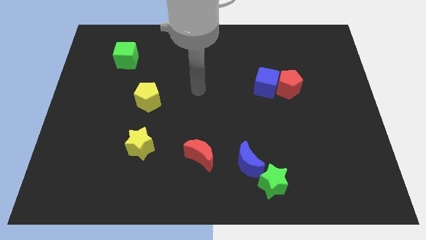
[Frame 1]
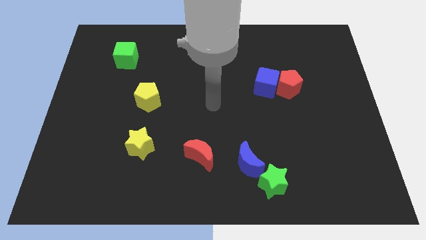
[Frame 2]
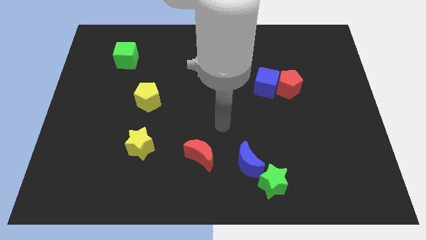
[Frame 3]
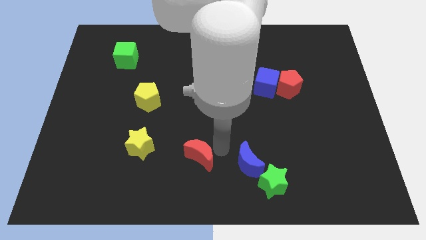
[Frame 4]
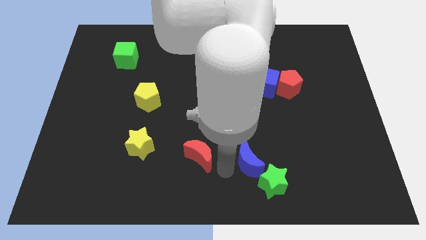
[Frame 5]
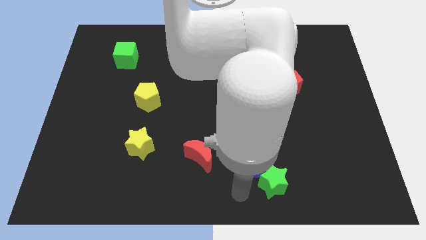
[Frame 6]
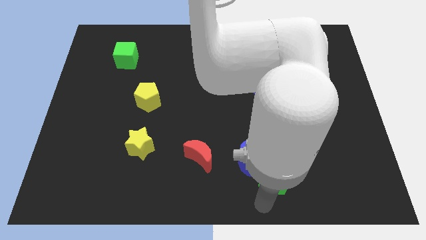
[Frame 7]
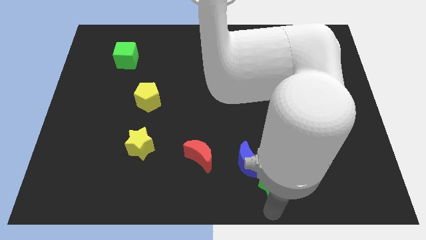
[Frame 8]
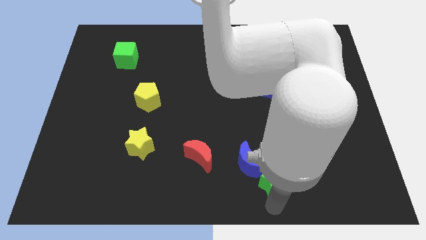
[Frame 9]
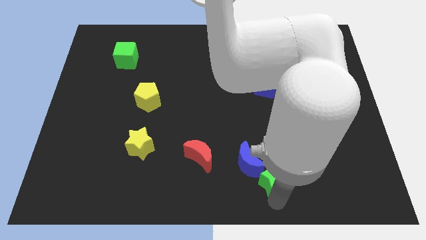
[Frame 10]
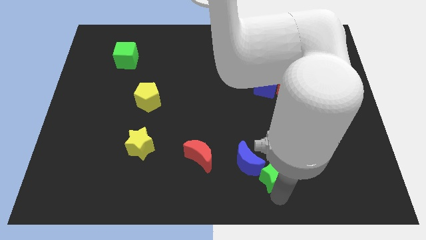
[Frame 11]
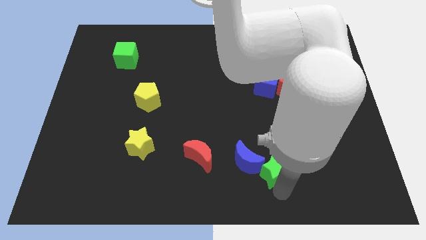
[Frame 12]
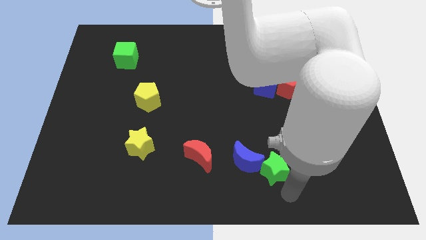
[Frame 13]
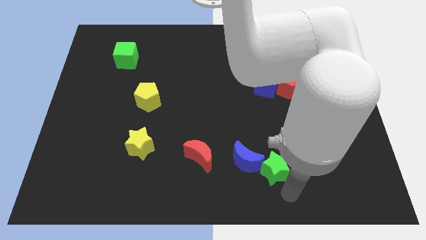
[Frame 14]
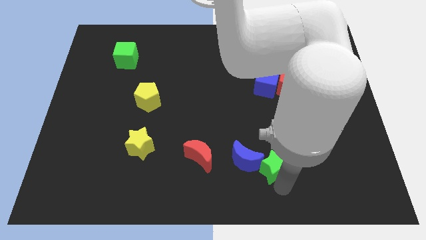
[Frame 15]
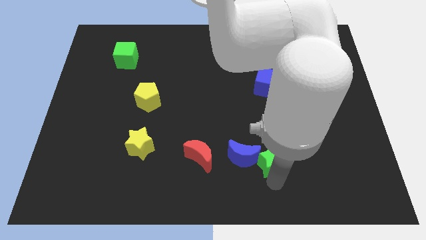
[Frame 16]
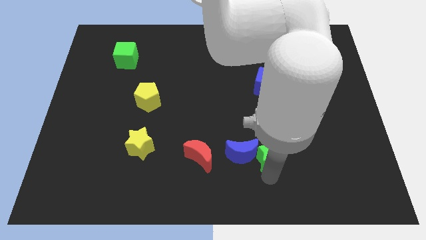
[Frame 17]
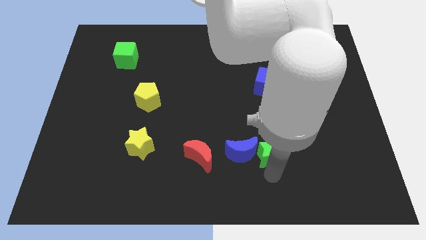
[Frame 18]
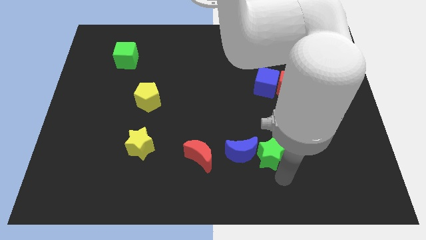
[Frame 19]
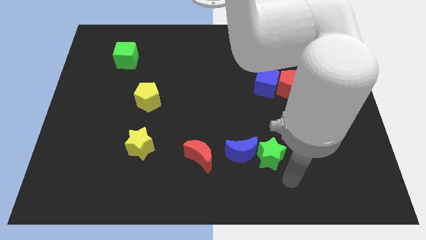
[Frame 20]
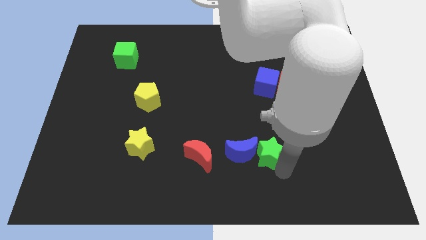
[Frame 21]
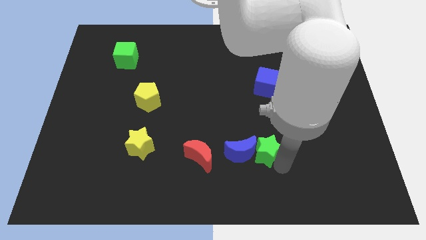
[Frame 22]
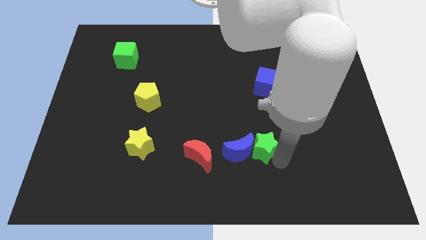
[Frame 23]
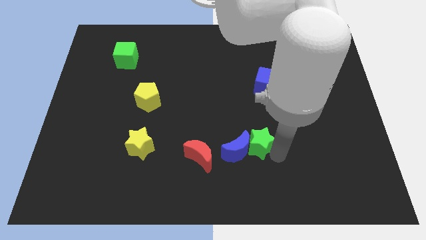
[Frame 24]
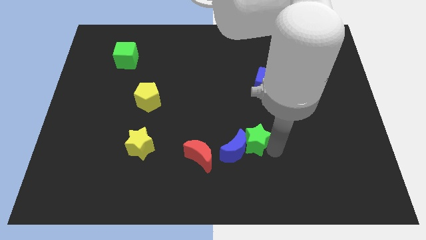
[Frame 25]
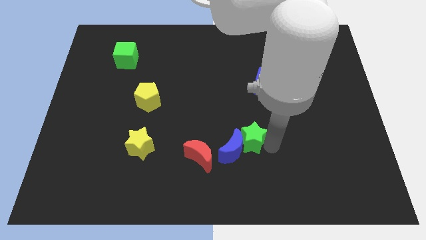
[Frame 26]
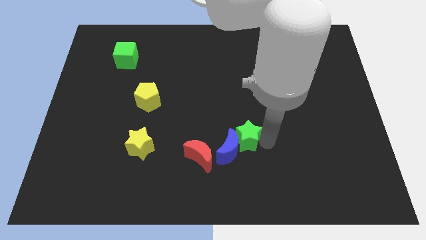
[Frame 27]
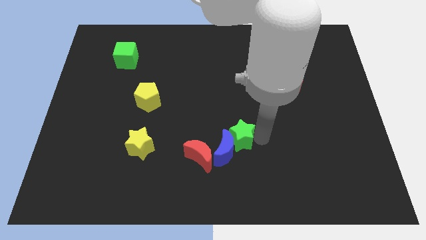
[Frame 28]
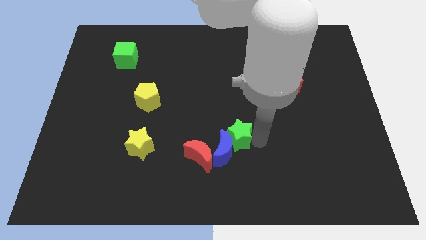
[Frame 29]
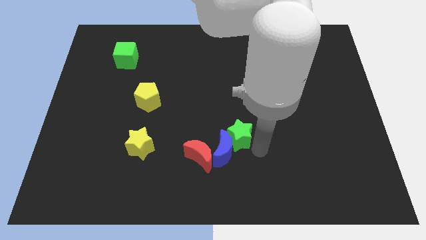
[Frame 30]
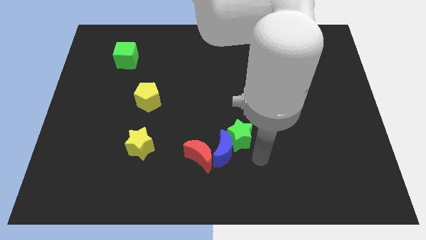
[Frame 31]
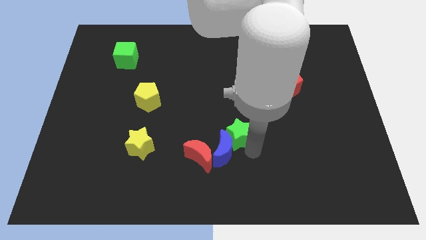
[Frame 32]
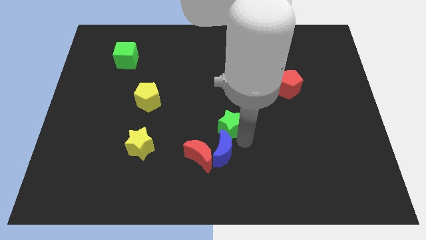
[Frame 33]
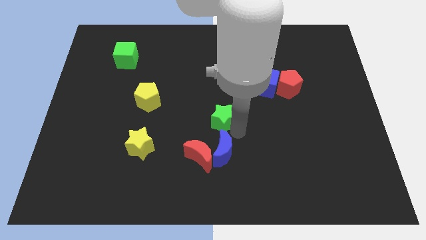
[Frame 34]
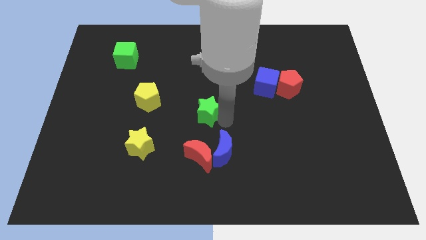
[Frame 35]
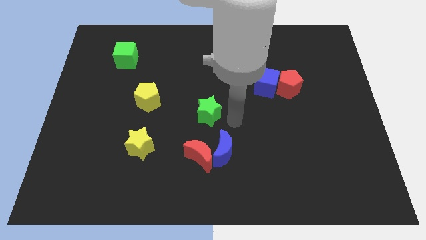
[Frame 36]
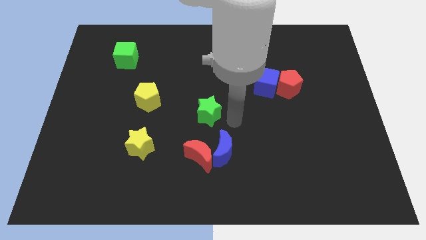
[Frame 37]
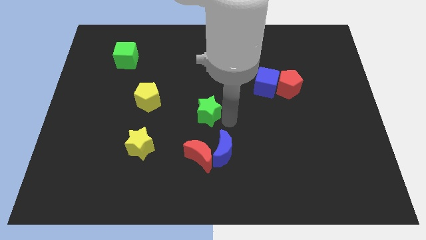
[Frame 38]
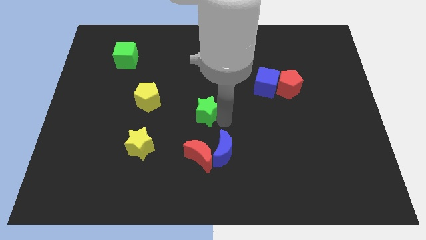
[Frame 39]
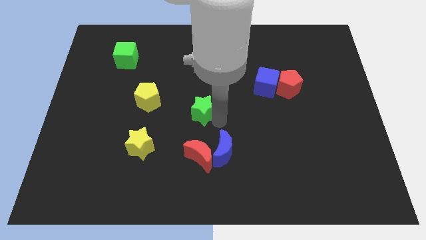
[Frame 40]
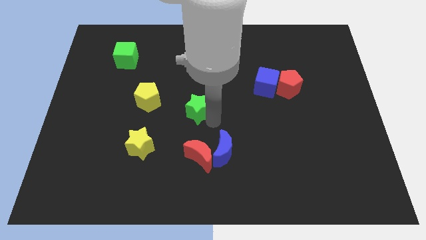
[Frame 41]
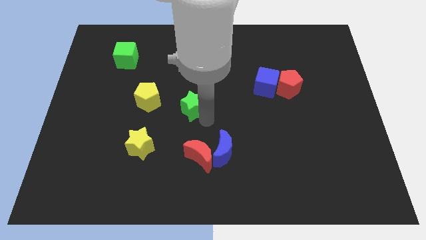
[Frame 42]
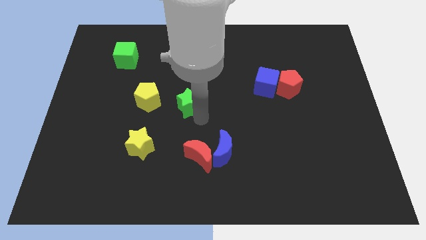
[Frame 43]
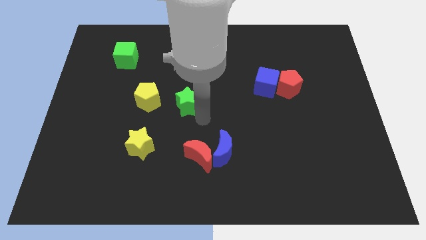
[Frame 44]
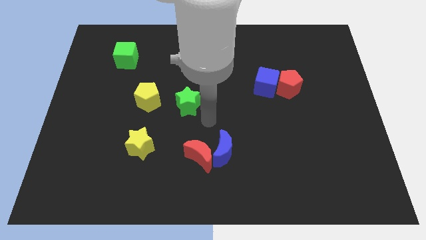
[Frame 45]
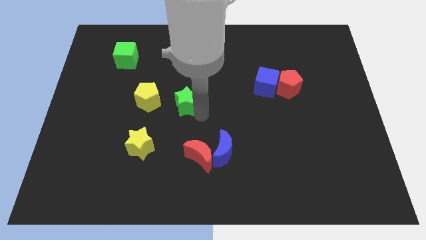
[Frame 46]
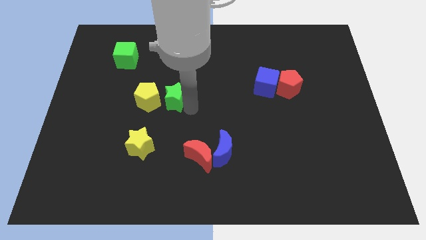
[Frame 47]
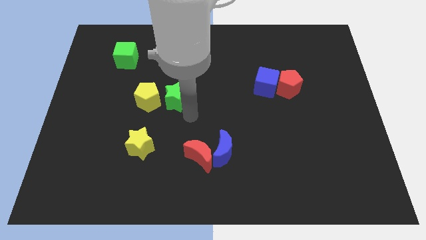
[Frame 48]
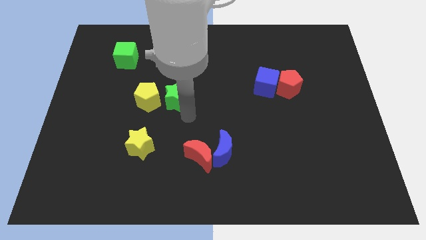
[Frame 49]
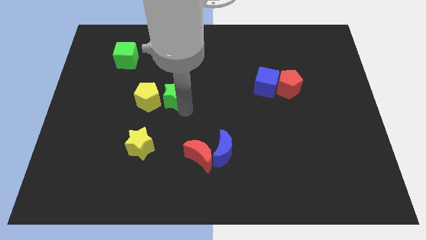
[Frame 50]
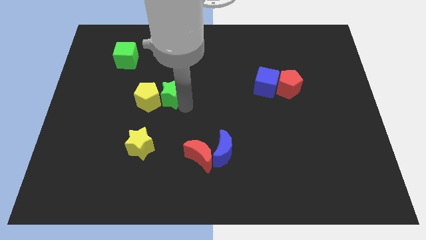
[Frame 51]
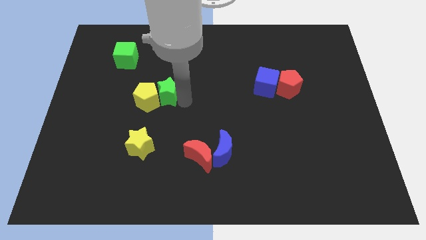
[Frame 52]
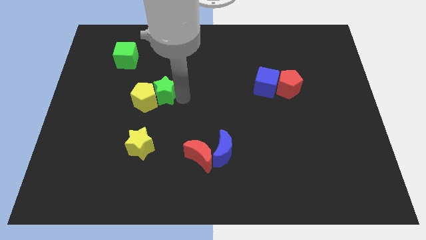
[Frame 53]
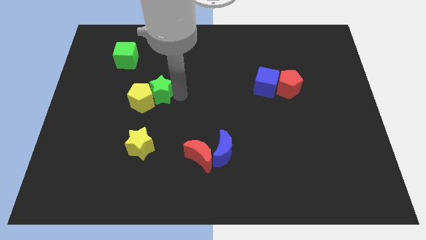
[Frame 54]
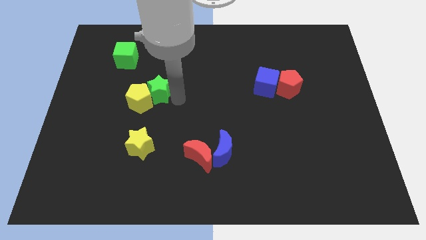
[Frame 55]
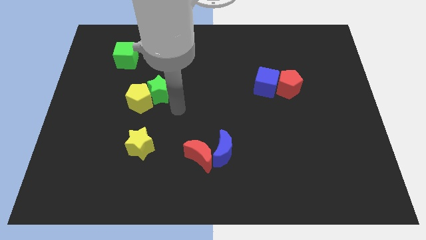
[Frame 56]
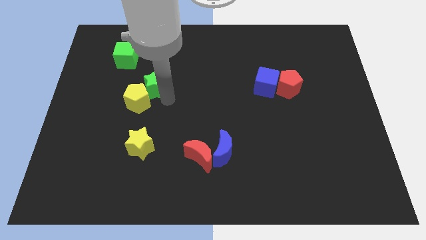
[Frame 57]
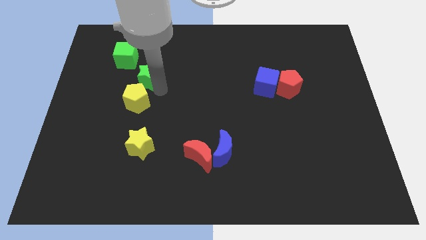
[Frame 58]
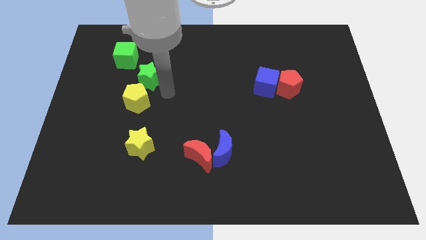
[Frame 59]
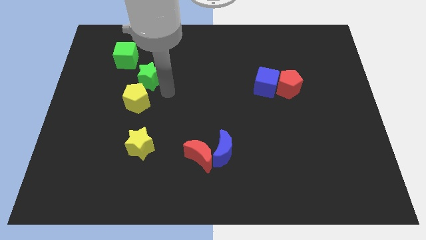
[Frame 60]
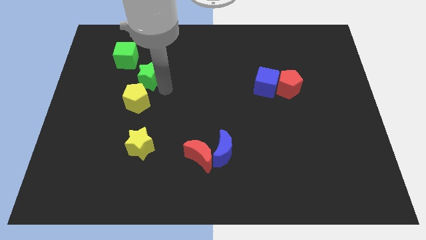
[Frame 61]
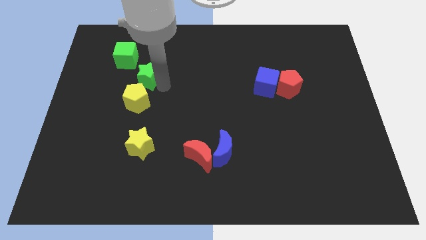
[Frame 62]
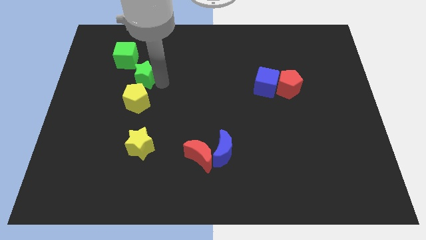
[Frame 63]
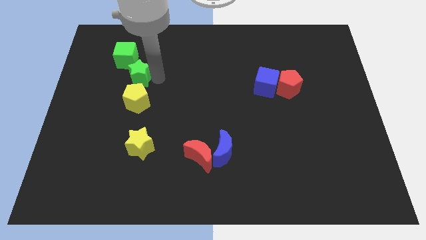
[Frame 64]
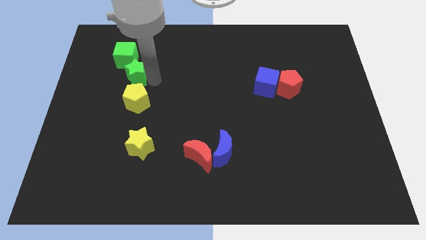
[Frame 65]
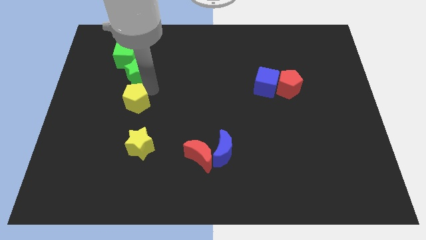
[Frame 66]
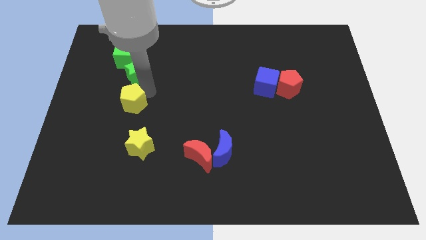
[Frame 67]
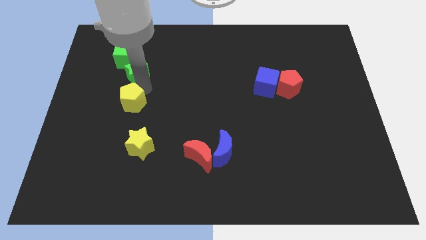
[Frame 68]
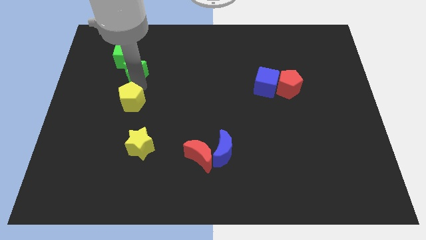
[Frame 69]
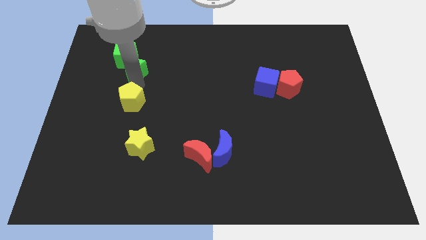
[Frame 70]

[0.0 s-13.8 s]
slide the green star to the green cube

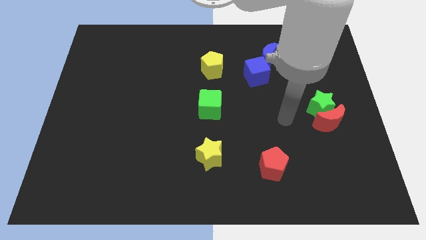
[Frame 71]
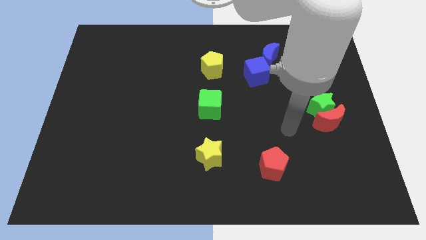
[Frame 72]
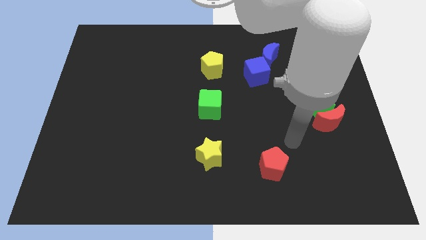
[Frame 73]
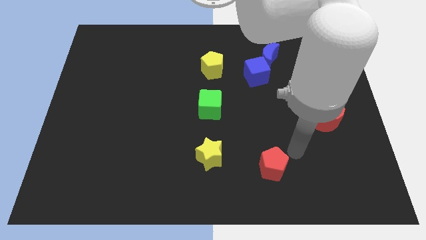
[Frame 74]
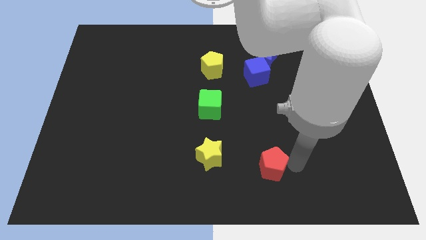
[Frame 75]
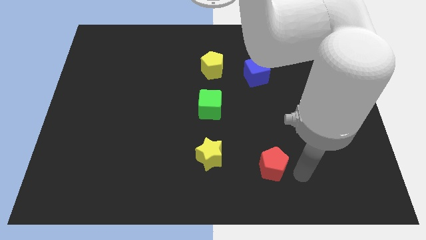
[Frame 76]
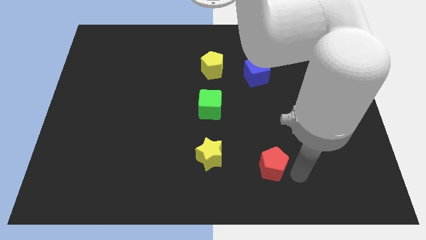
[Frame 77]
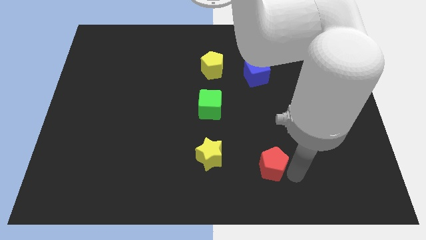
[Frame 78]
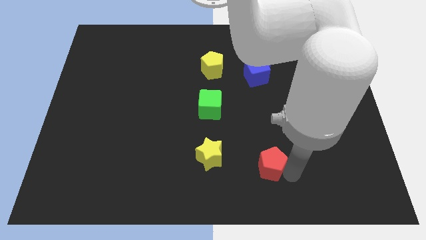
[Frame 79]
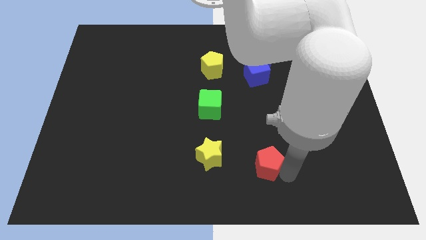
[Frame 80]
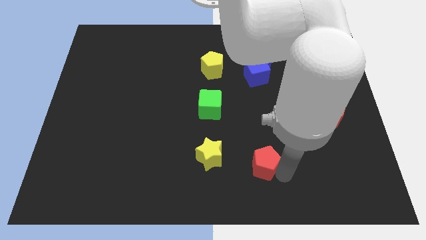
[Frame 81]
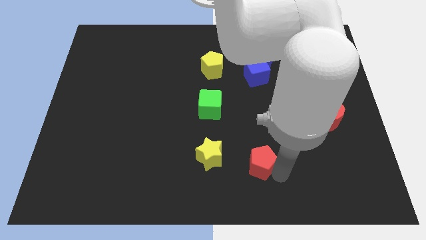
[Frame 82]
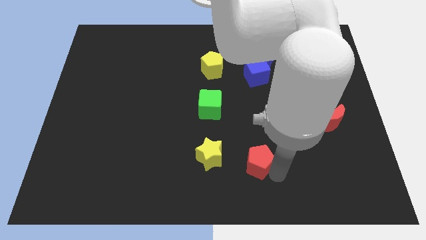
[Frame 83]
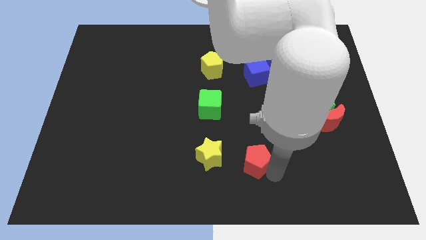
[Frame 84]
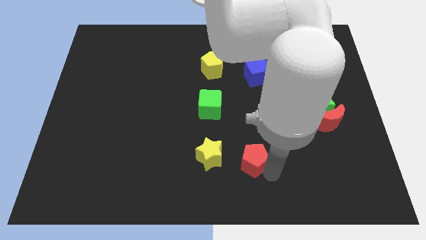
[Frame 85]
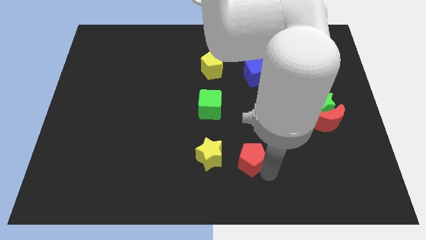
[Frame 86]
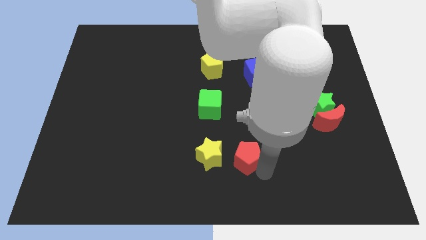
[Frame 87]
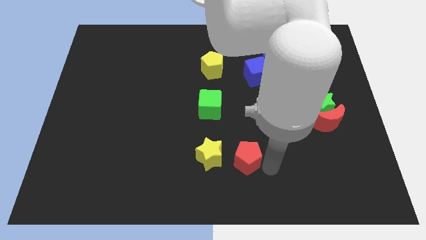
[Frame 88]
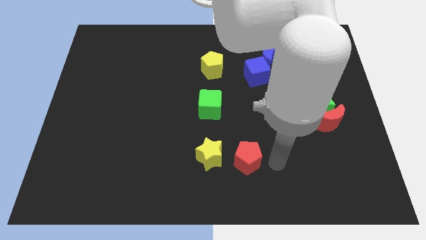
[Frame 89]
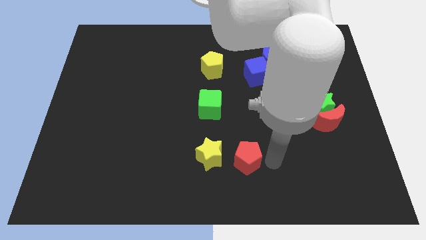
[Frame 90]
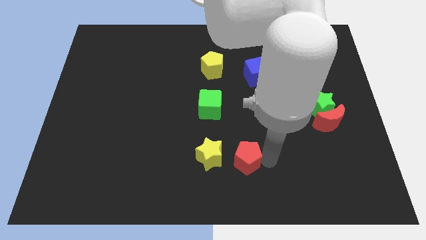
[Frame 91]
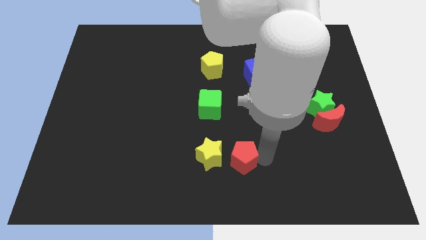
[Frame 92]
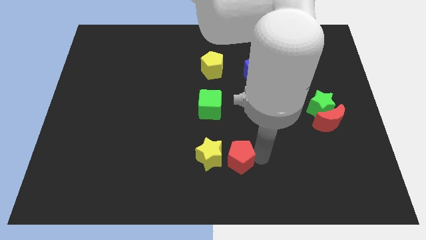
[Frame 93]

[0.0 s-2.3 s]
push the red pentagon next to the yellow star
